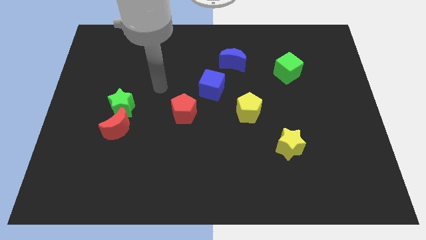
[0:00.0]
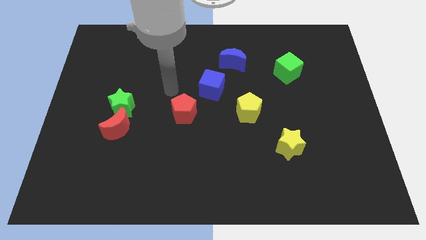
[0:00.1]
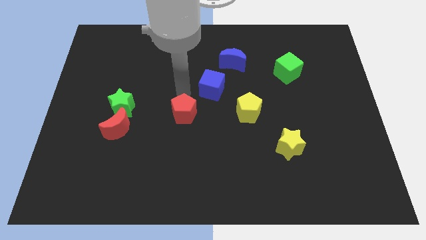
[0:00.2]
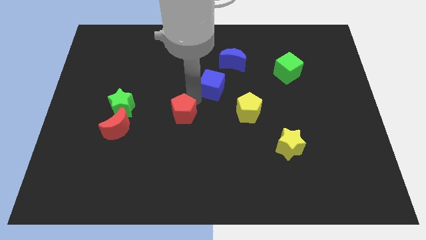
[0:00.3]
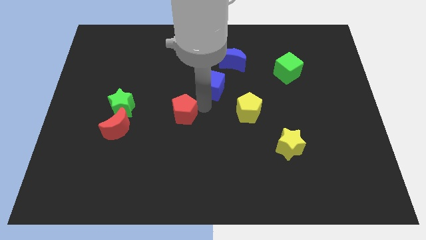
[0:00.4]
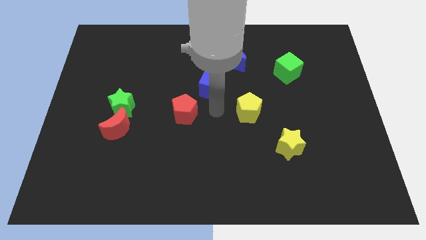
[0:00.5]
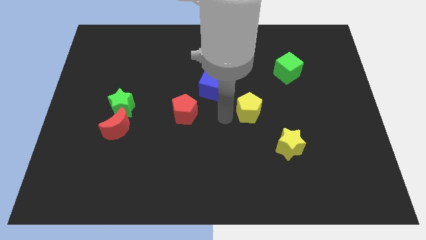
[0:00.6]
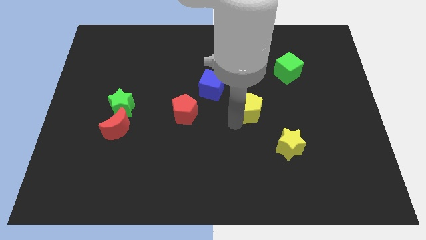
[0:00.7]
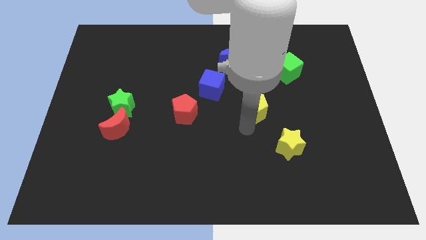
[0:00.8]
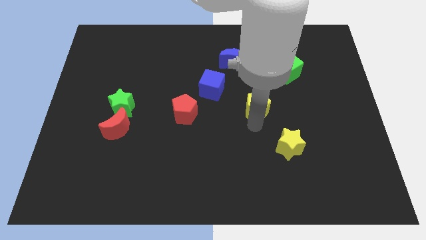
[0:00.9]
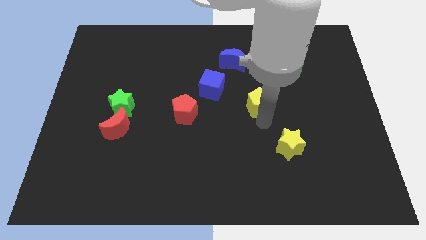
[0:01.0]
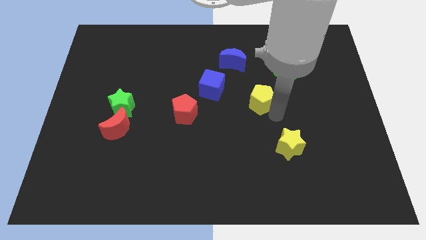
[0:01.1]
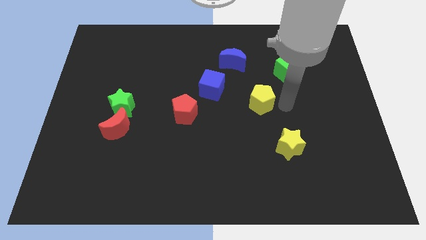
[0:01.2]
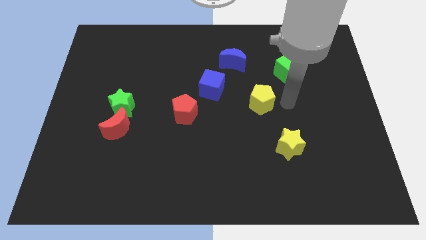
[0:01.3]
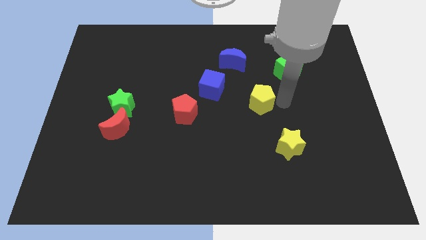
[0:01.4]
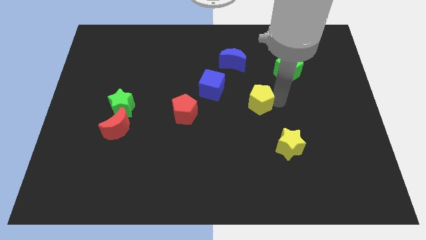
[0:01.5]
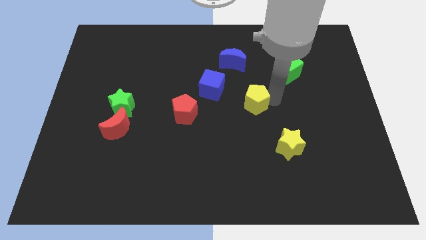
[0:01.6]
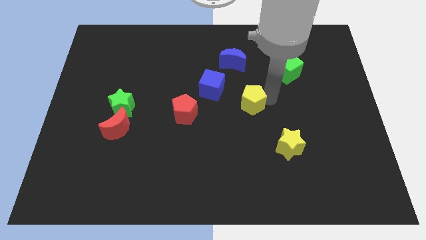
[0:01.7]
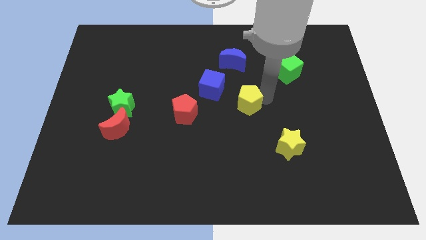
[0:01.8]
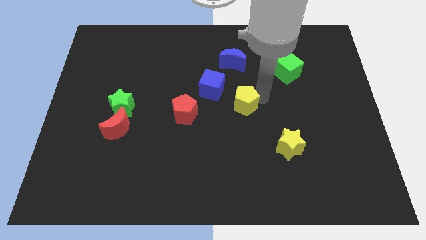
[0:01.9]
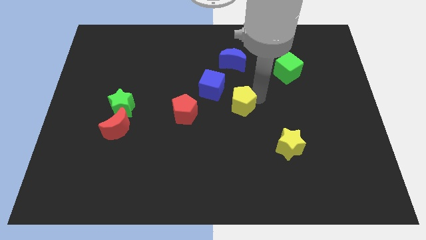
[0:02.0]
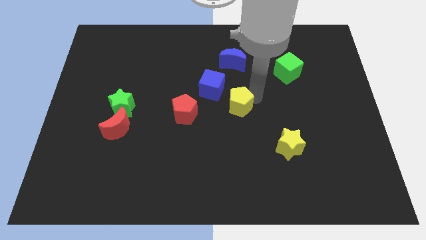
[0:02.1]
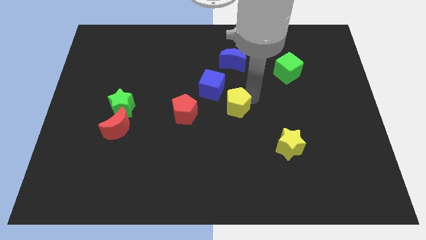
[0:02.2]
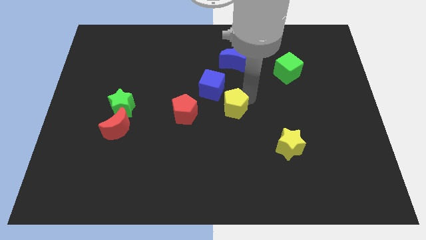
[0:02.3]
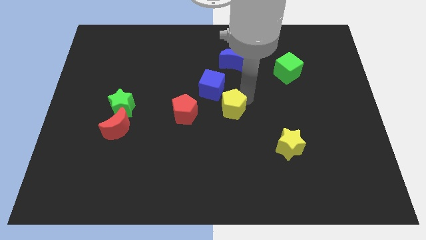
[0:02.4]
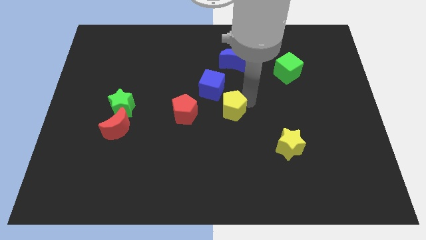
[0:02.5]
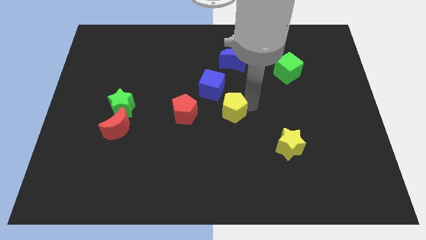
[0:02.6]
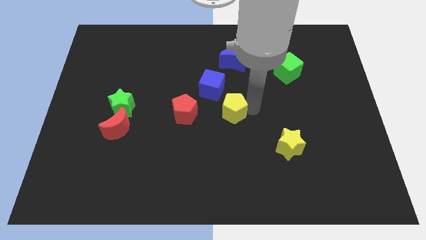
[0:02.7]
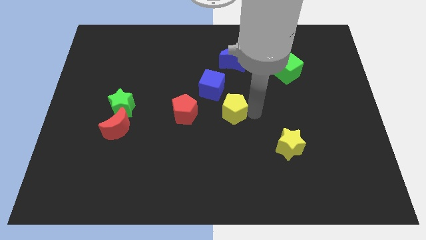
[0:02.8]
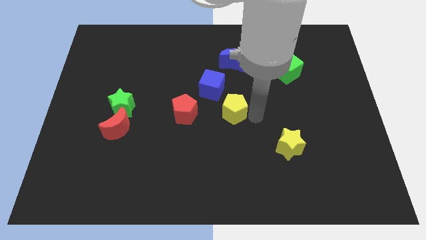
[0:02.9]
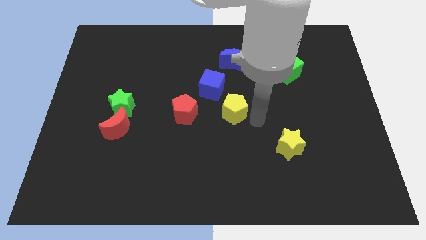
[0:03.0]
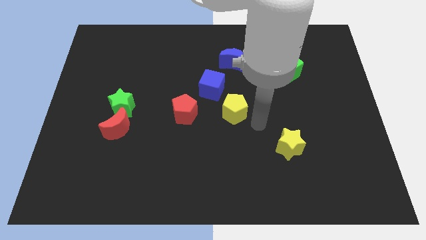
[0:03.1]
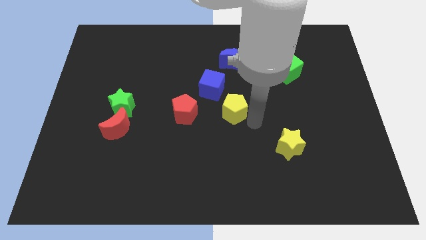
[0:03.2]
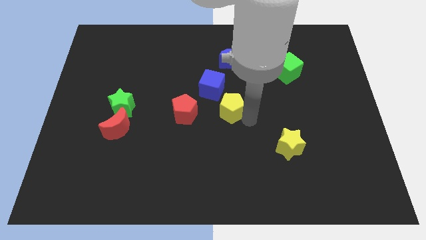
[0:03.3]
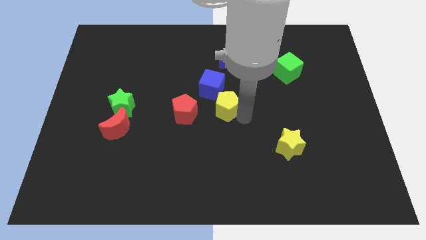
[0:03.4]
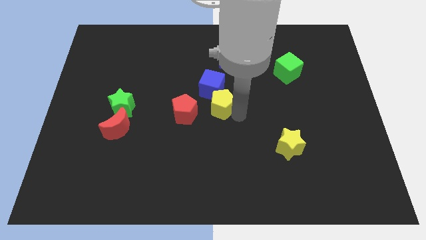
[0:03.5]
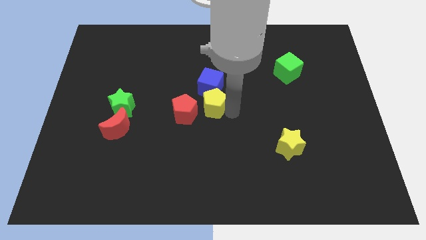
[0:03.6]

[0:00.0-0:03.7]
slightly push the yellow pentagon to the left

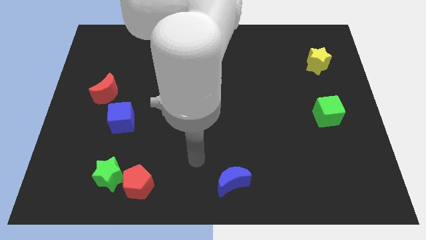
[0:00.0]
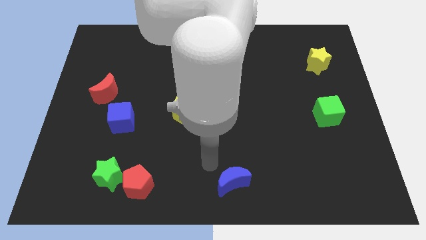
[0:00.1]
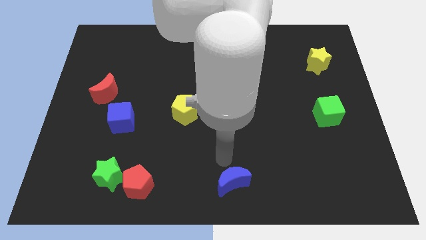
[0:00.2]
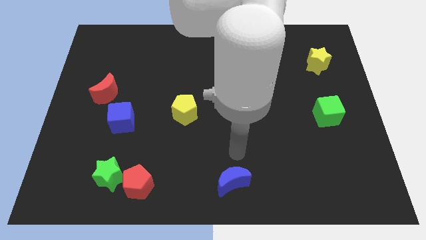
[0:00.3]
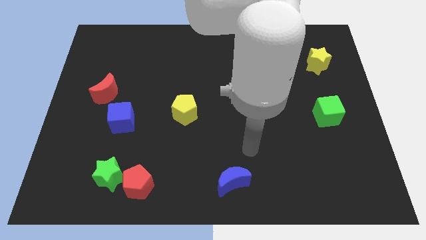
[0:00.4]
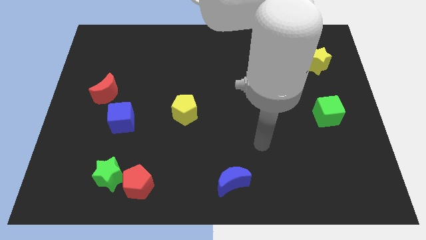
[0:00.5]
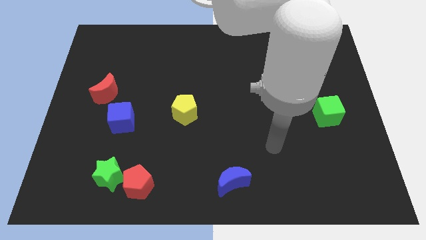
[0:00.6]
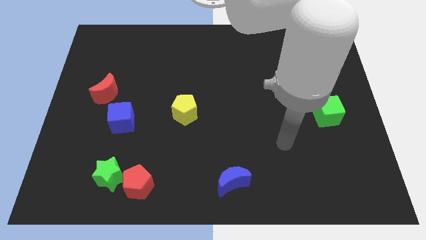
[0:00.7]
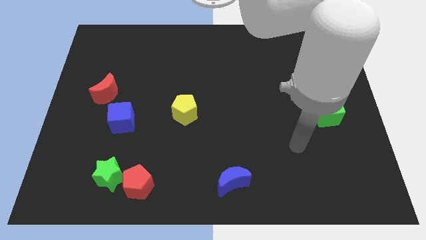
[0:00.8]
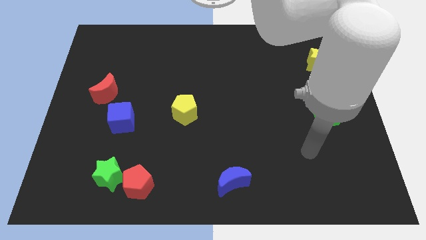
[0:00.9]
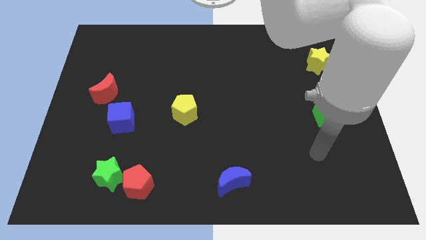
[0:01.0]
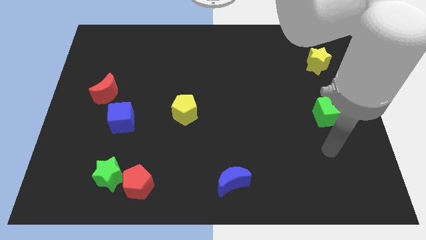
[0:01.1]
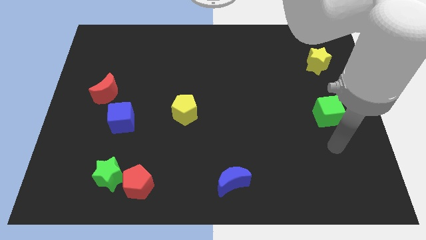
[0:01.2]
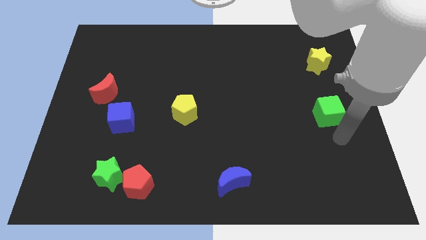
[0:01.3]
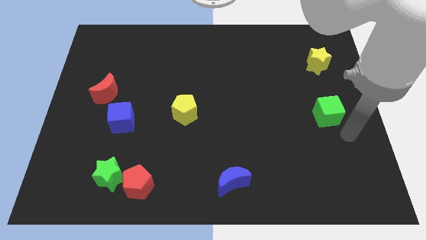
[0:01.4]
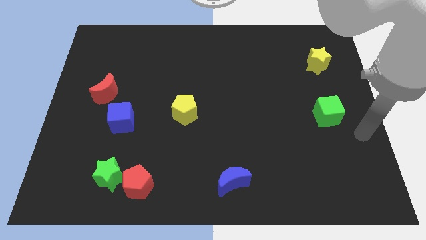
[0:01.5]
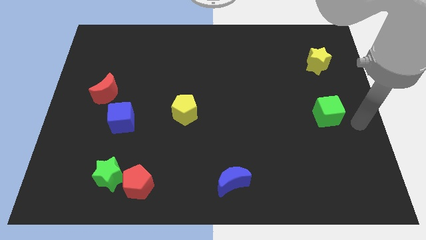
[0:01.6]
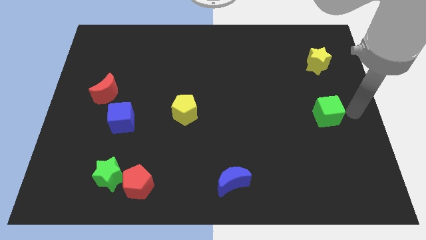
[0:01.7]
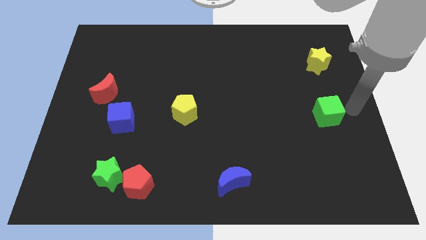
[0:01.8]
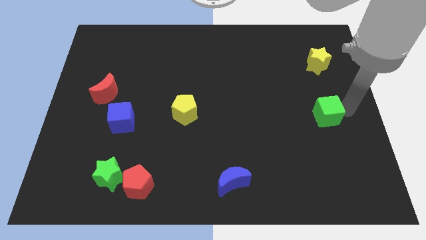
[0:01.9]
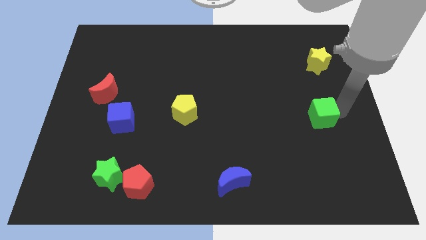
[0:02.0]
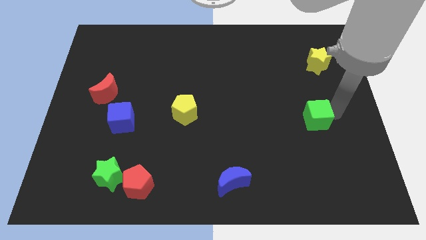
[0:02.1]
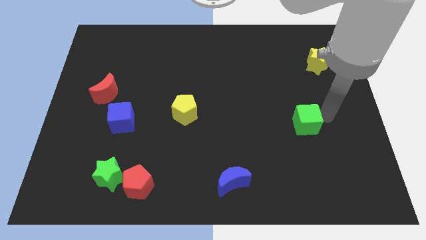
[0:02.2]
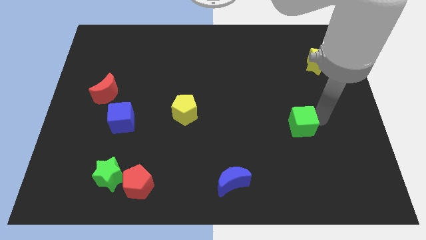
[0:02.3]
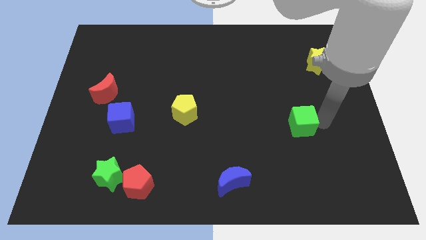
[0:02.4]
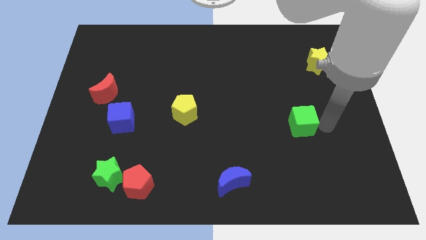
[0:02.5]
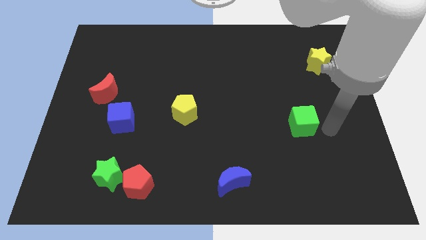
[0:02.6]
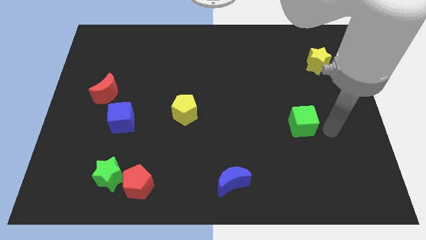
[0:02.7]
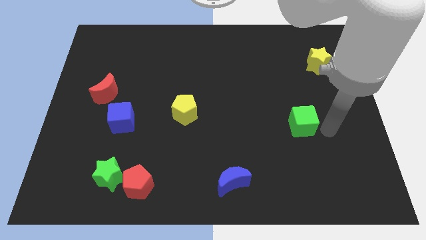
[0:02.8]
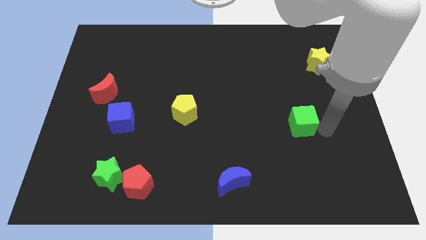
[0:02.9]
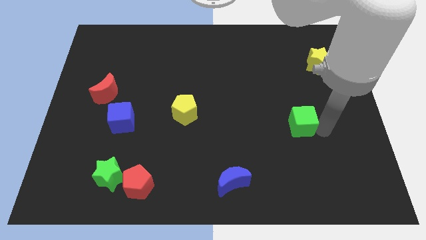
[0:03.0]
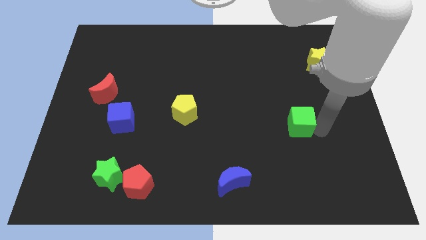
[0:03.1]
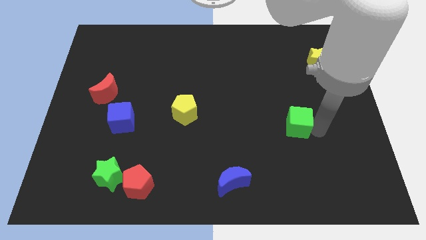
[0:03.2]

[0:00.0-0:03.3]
push the green cube a little to the left

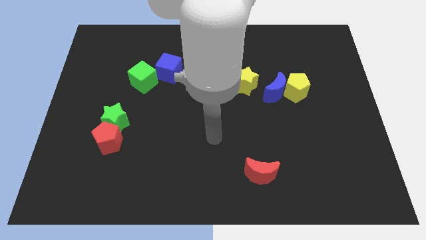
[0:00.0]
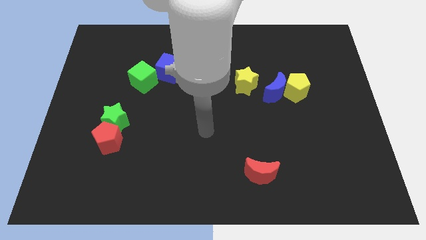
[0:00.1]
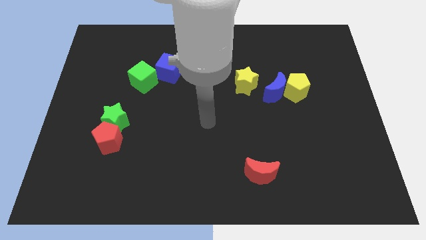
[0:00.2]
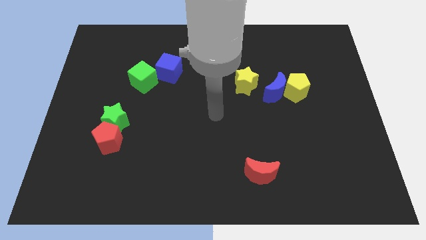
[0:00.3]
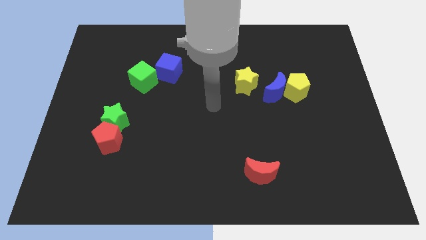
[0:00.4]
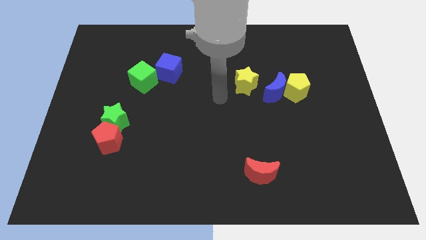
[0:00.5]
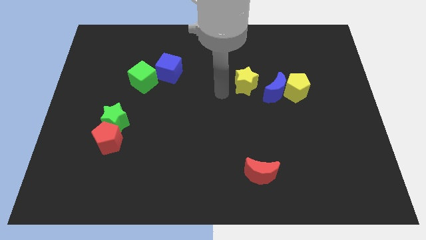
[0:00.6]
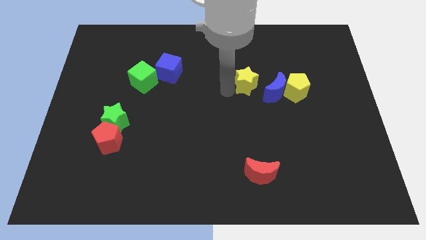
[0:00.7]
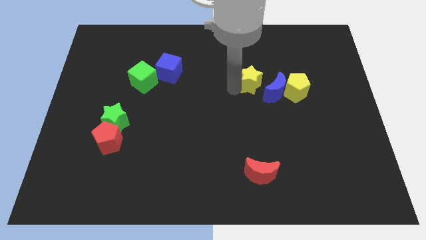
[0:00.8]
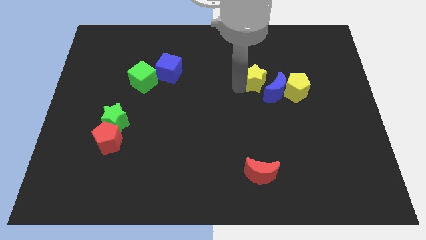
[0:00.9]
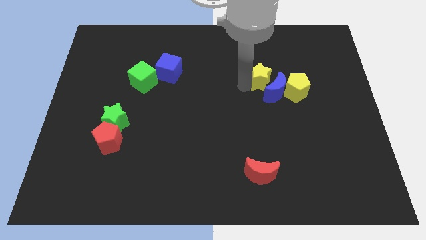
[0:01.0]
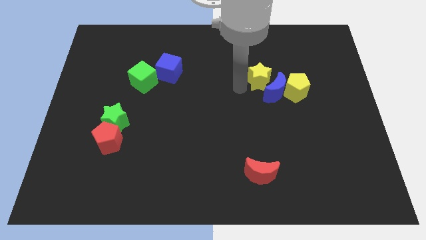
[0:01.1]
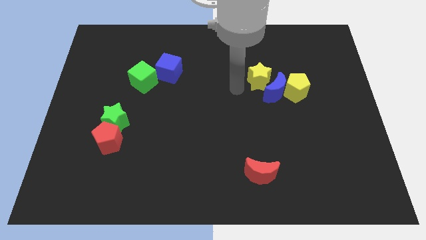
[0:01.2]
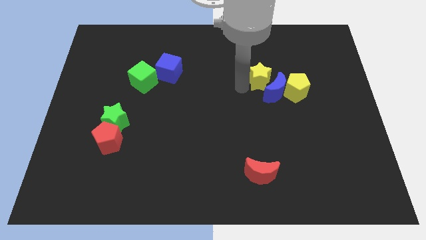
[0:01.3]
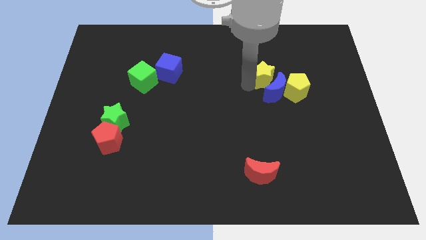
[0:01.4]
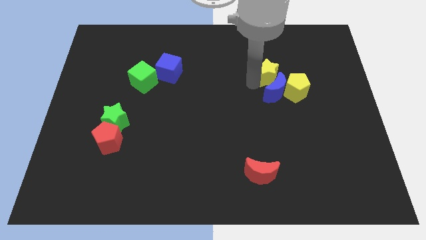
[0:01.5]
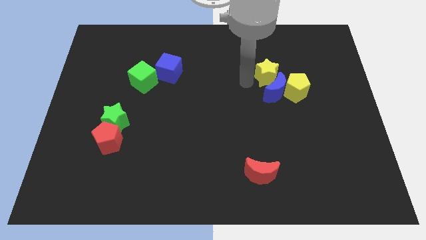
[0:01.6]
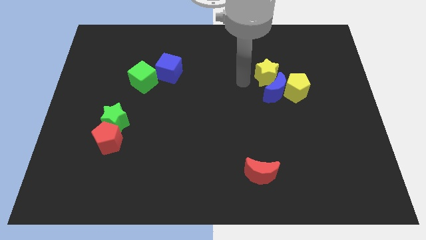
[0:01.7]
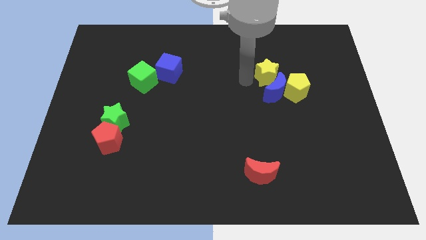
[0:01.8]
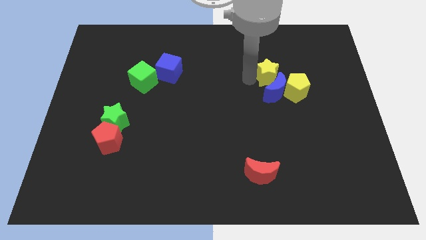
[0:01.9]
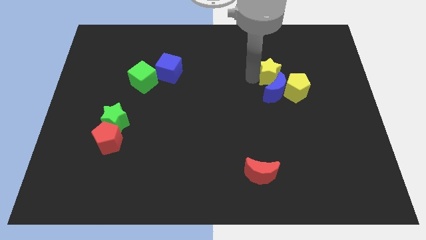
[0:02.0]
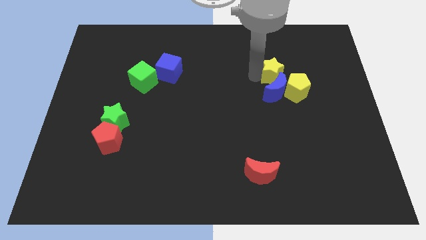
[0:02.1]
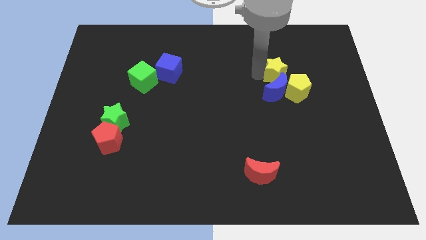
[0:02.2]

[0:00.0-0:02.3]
slide the yellow star to the right slightly
